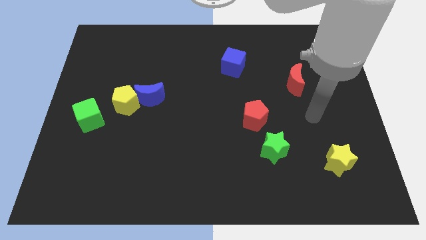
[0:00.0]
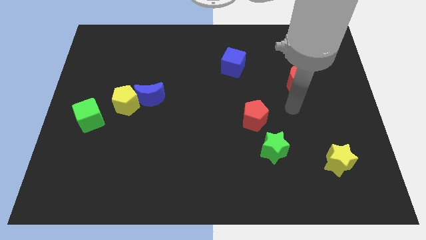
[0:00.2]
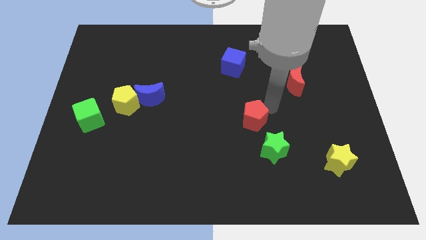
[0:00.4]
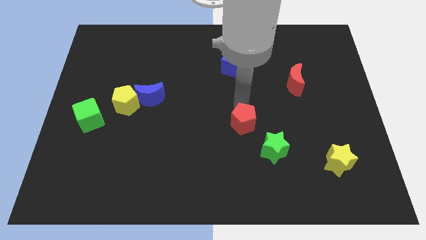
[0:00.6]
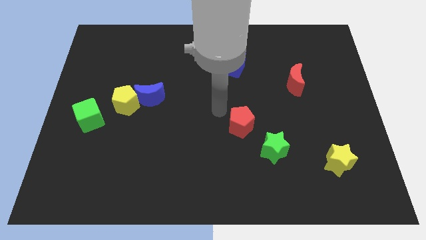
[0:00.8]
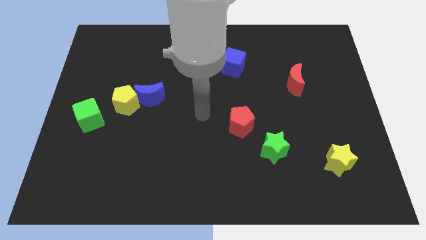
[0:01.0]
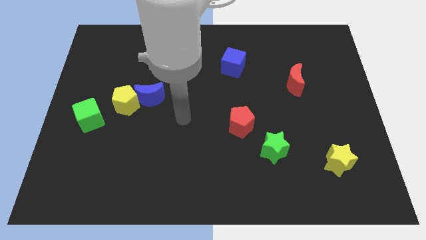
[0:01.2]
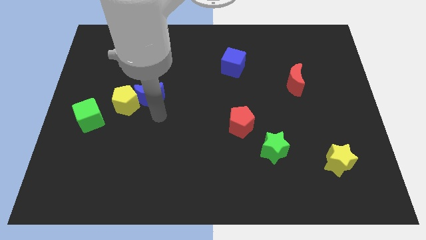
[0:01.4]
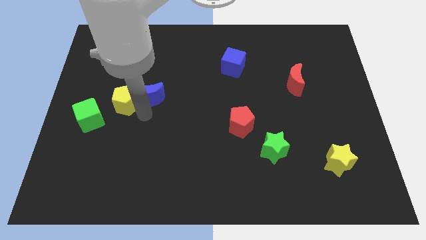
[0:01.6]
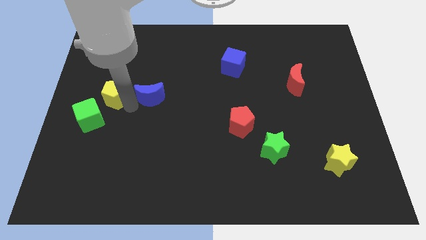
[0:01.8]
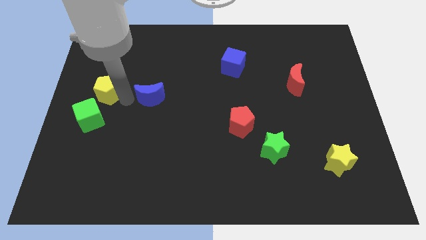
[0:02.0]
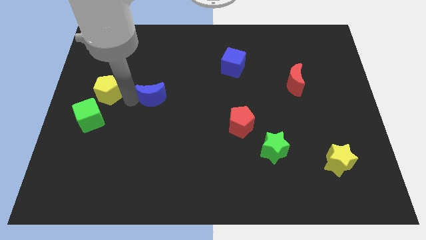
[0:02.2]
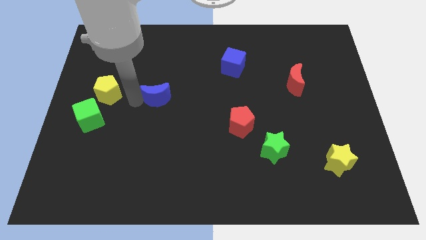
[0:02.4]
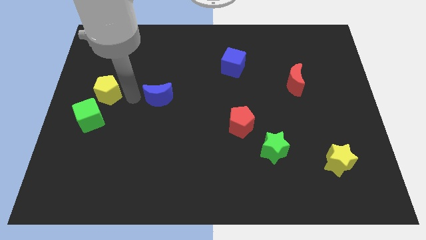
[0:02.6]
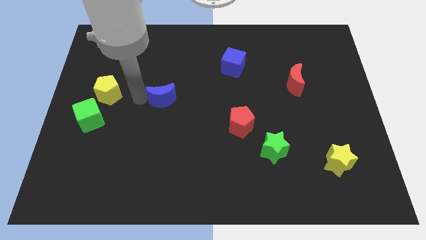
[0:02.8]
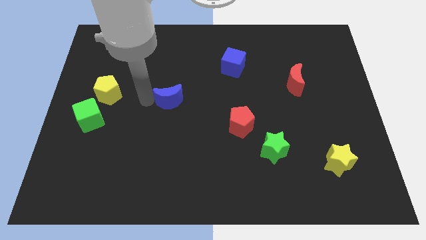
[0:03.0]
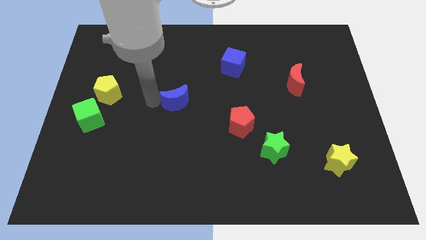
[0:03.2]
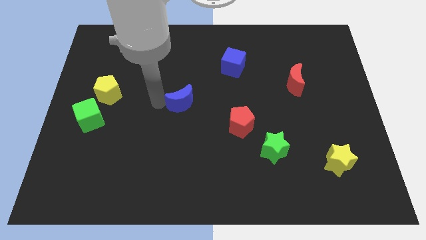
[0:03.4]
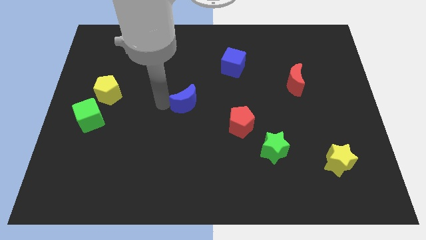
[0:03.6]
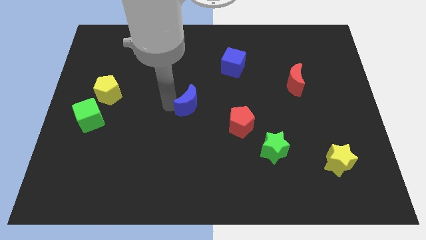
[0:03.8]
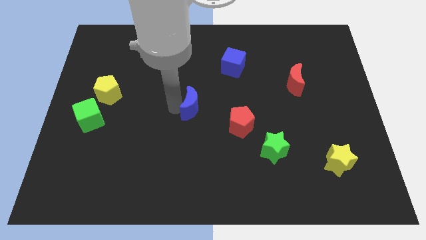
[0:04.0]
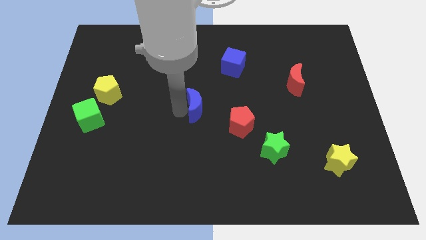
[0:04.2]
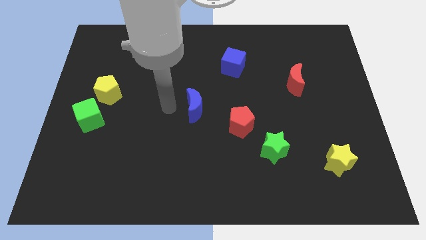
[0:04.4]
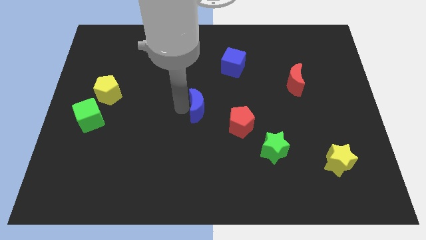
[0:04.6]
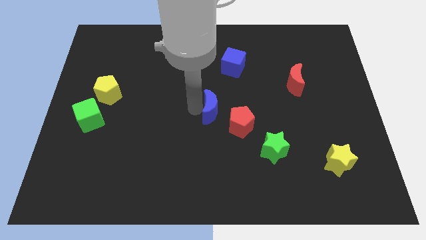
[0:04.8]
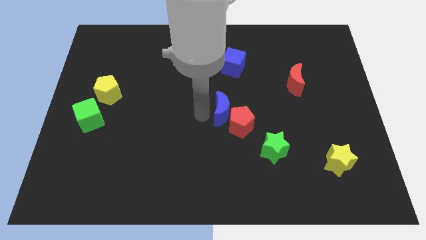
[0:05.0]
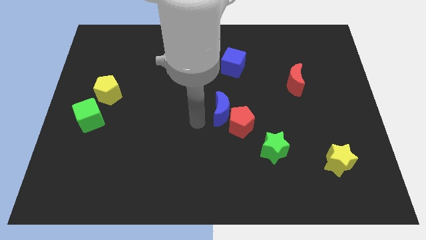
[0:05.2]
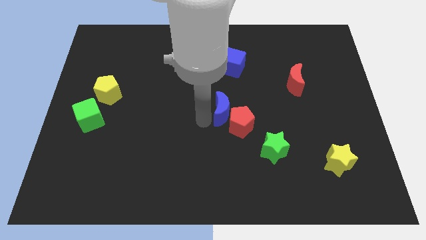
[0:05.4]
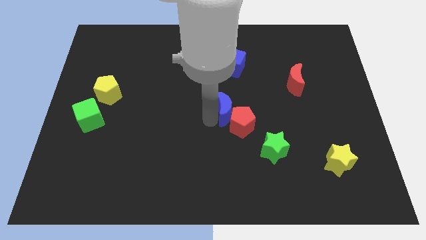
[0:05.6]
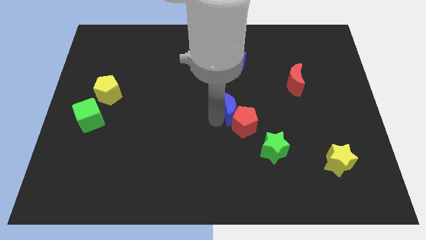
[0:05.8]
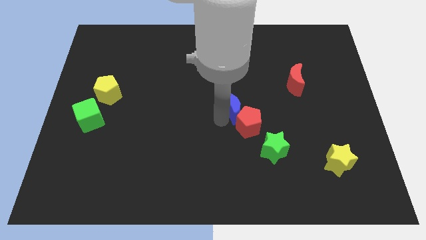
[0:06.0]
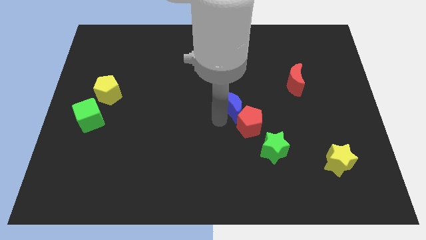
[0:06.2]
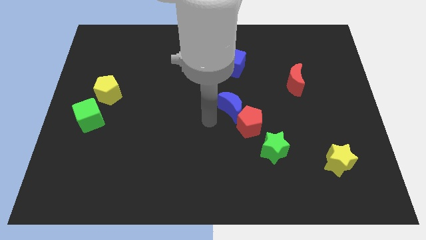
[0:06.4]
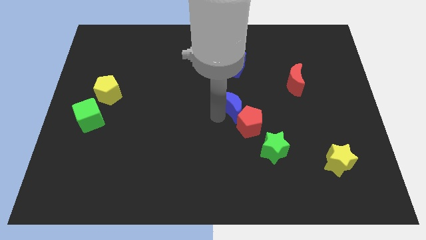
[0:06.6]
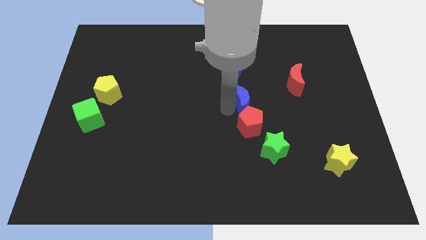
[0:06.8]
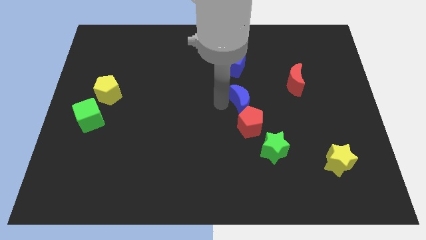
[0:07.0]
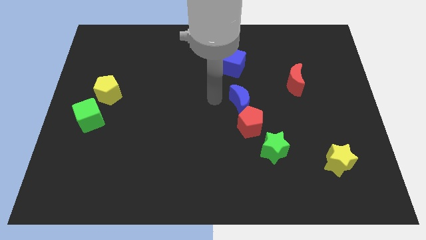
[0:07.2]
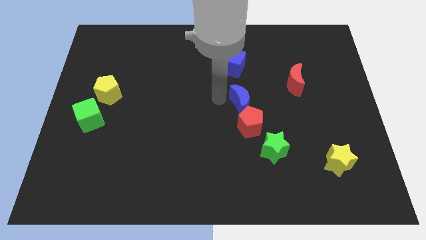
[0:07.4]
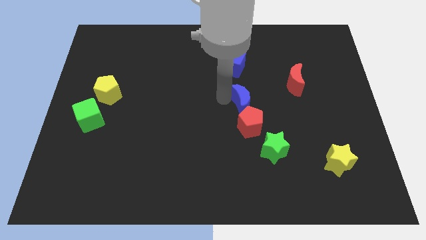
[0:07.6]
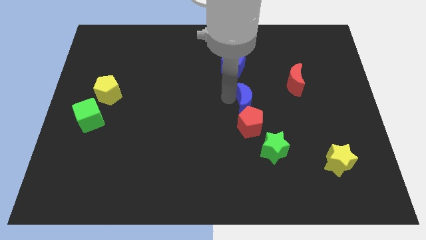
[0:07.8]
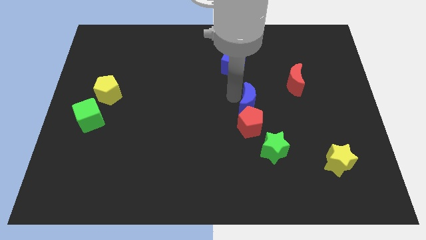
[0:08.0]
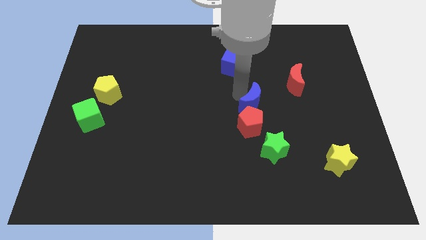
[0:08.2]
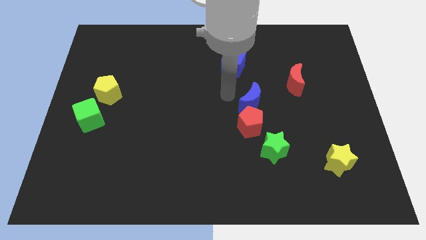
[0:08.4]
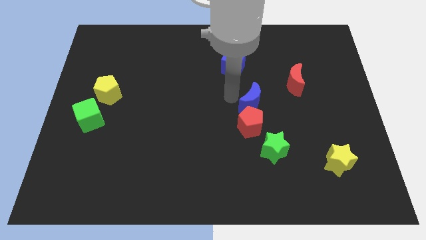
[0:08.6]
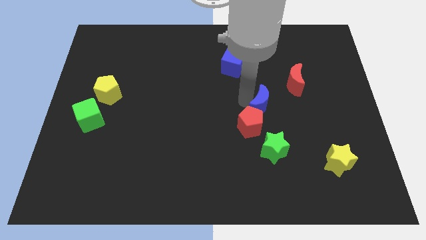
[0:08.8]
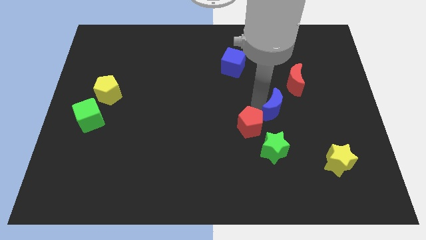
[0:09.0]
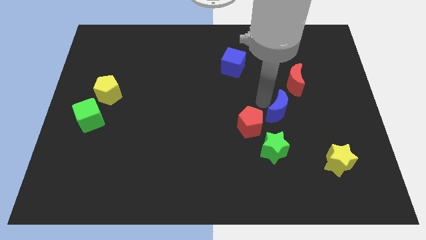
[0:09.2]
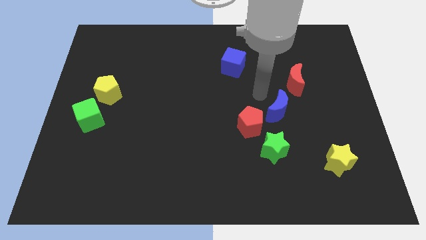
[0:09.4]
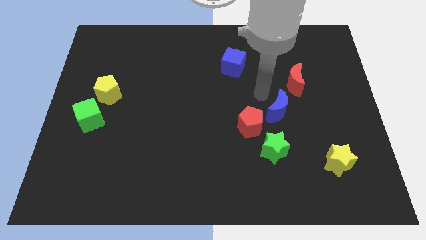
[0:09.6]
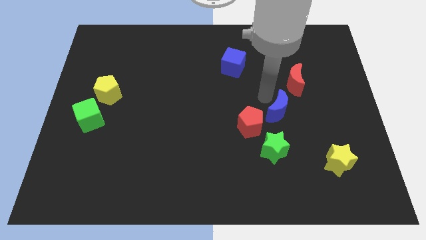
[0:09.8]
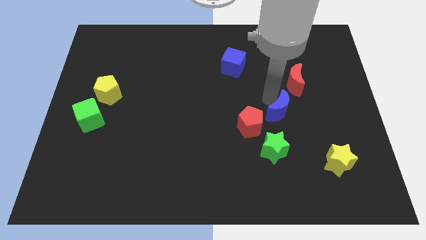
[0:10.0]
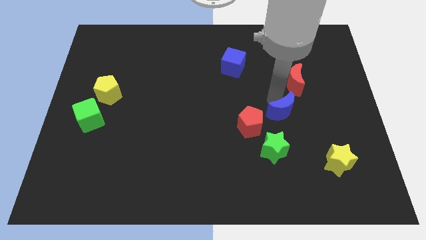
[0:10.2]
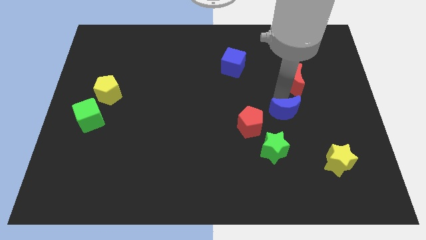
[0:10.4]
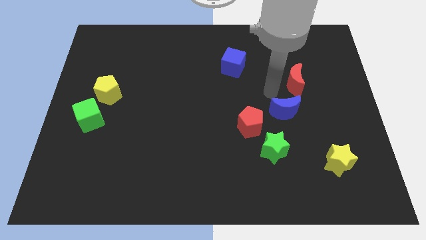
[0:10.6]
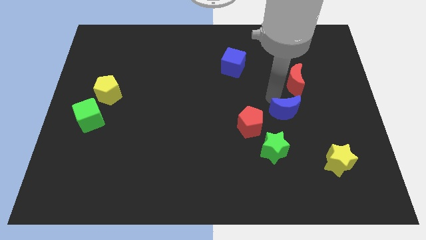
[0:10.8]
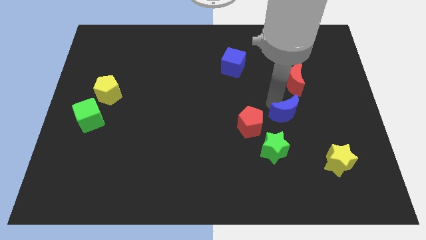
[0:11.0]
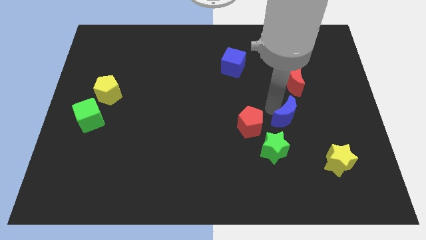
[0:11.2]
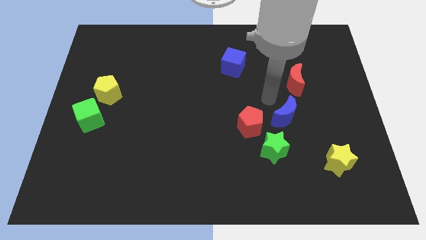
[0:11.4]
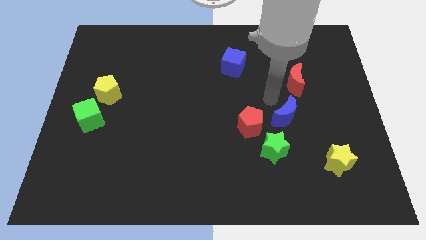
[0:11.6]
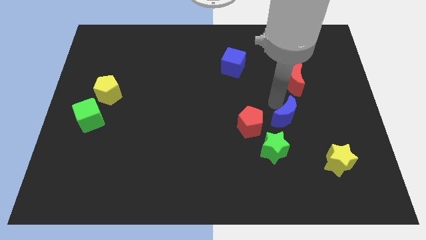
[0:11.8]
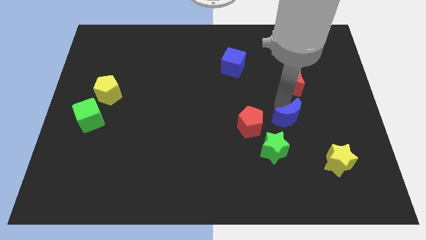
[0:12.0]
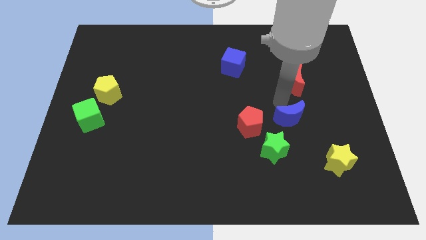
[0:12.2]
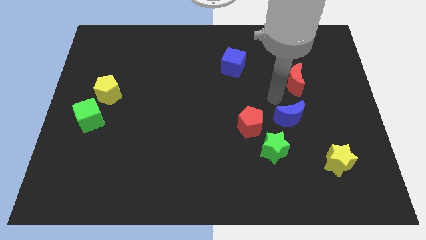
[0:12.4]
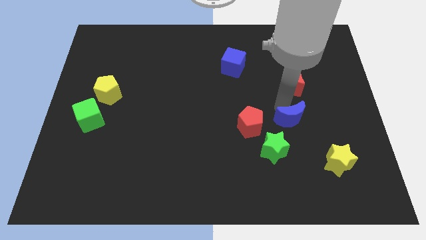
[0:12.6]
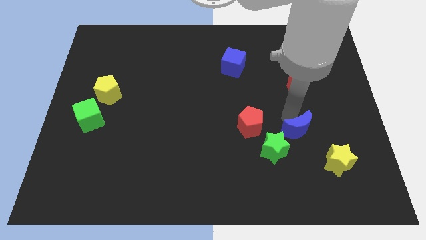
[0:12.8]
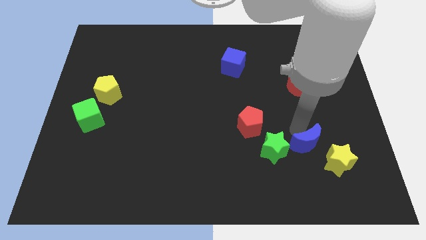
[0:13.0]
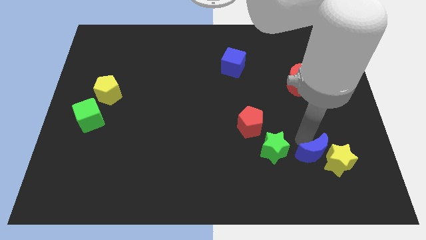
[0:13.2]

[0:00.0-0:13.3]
put the blue moon next to the yellow star
